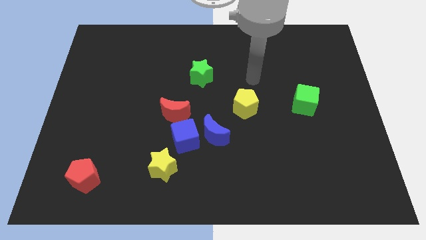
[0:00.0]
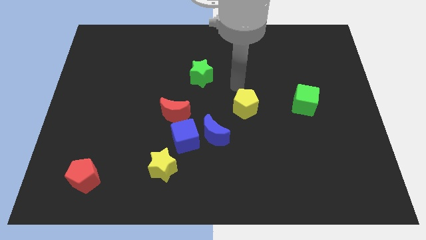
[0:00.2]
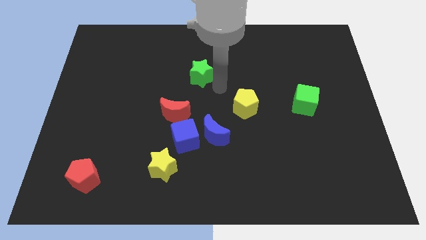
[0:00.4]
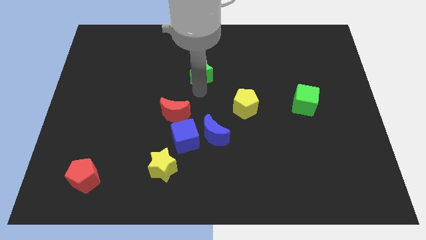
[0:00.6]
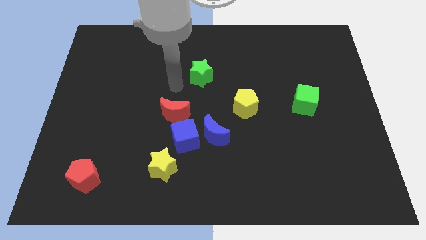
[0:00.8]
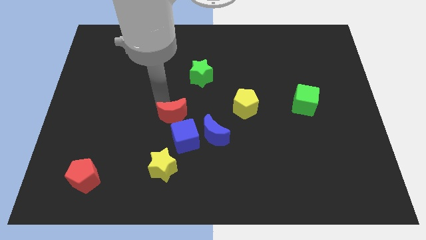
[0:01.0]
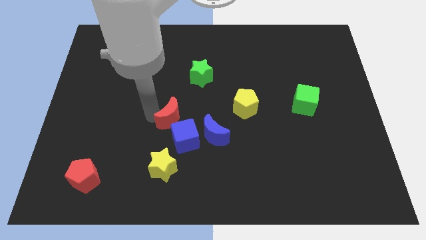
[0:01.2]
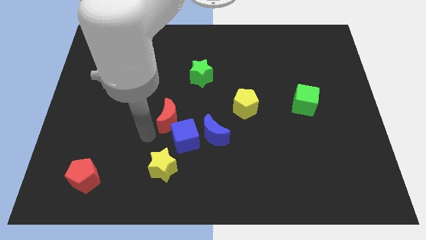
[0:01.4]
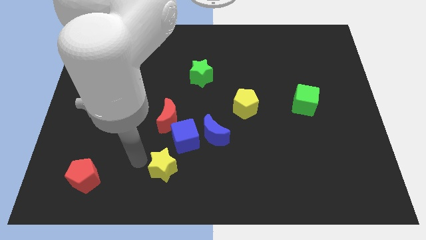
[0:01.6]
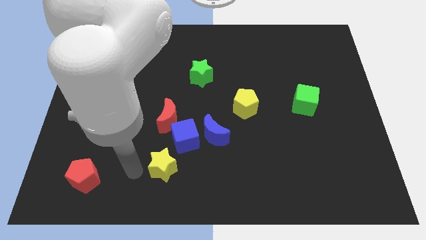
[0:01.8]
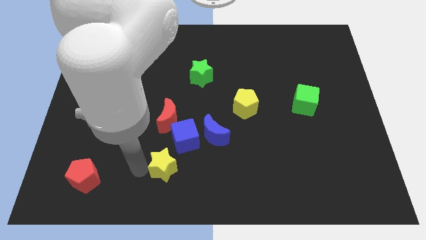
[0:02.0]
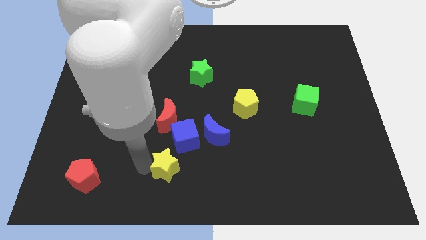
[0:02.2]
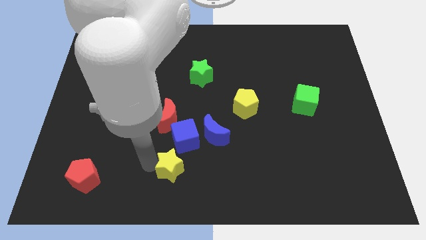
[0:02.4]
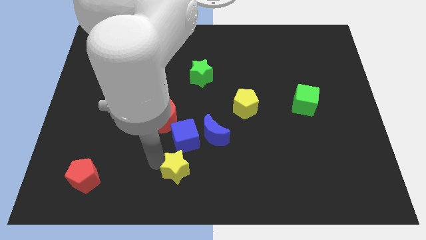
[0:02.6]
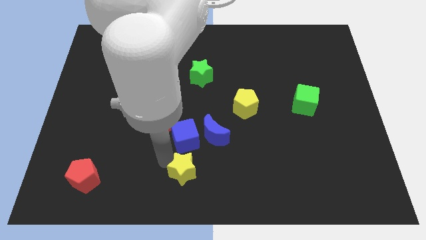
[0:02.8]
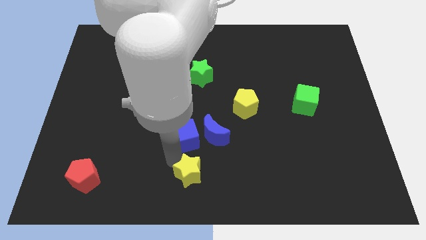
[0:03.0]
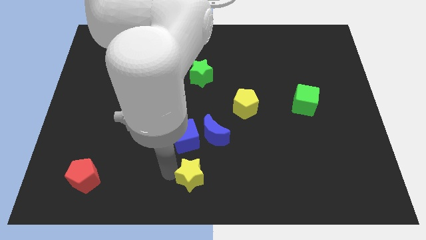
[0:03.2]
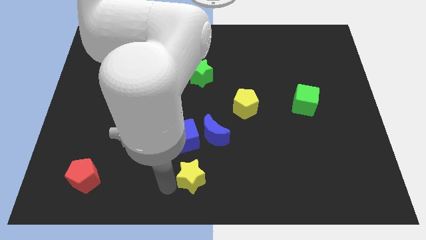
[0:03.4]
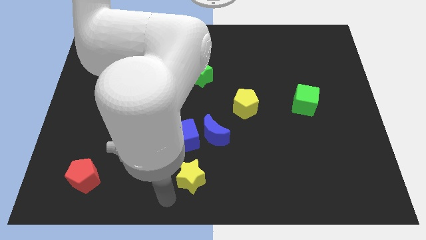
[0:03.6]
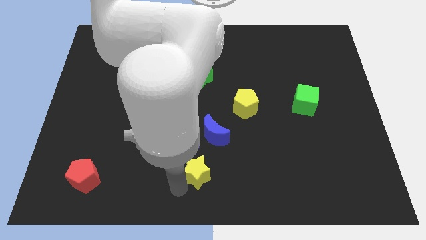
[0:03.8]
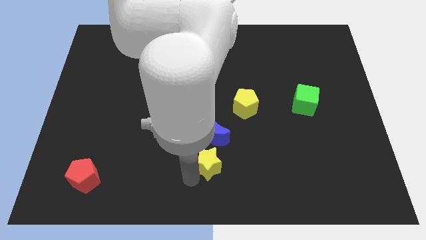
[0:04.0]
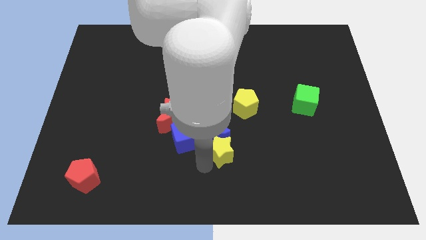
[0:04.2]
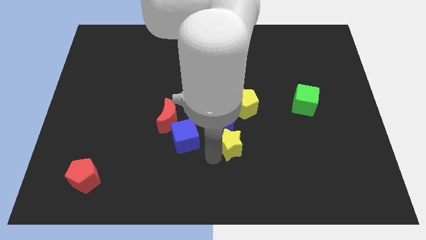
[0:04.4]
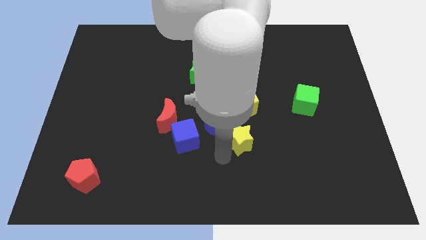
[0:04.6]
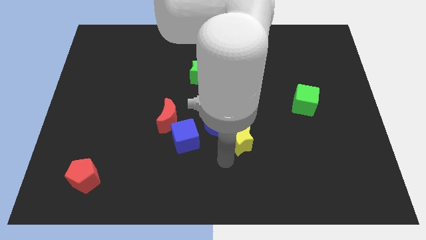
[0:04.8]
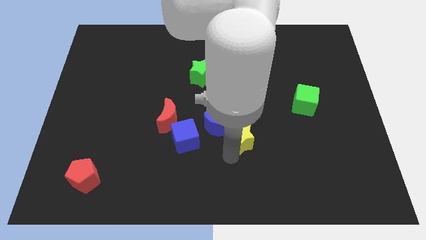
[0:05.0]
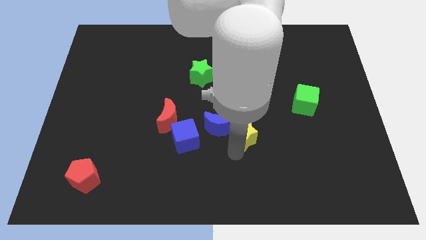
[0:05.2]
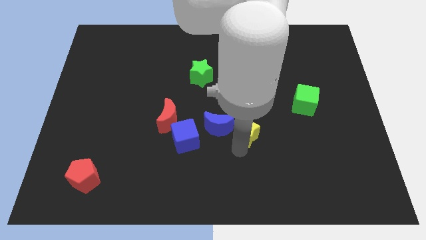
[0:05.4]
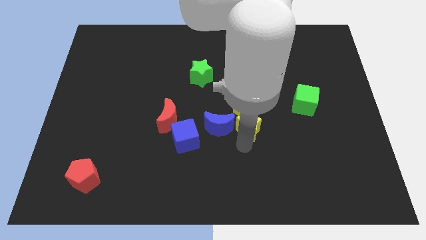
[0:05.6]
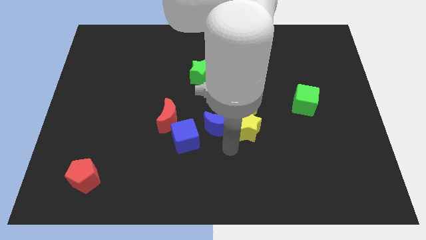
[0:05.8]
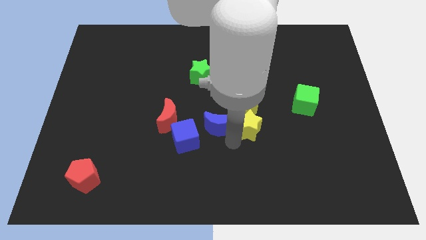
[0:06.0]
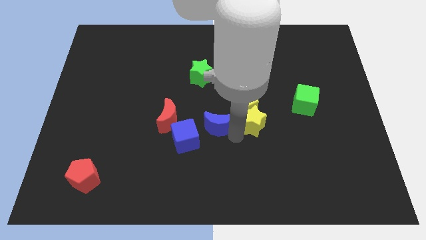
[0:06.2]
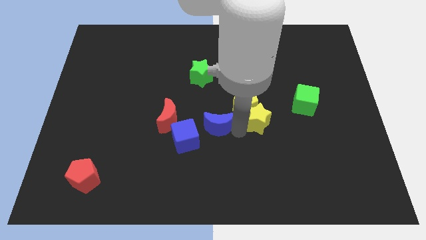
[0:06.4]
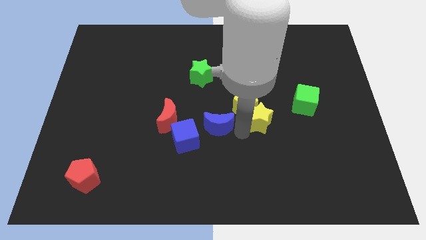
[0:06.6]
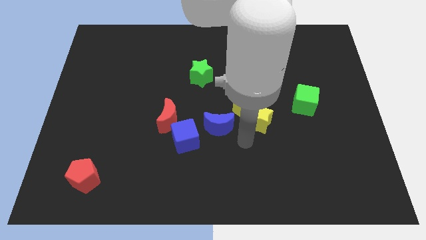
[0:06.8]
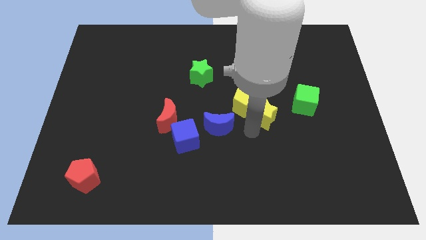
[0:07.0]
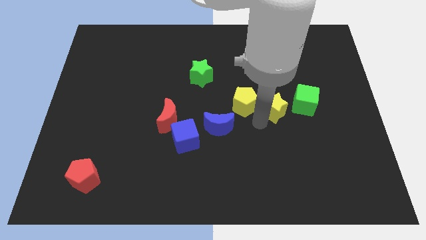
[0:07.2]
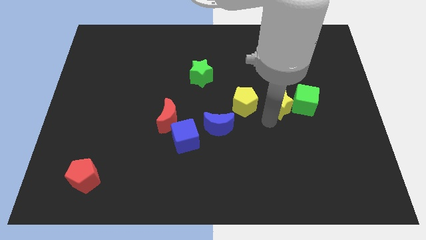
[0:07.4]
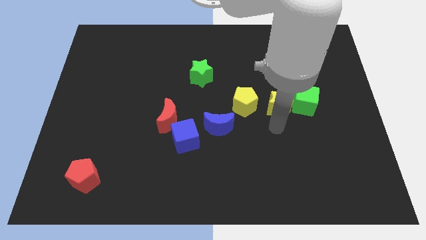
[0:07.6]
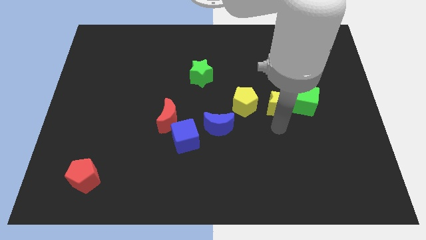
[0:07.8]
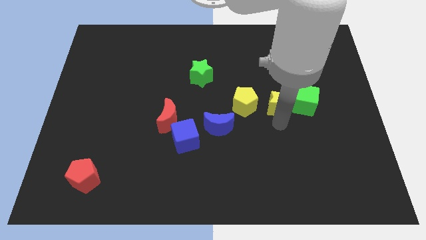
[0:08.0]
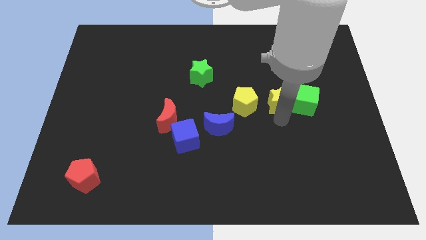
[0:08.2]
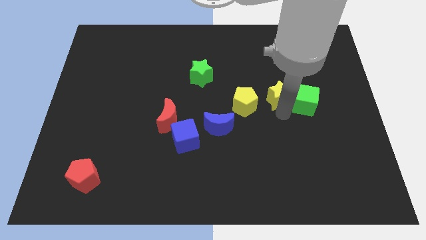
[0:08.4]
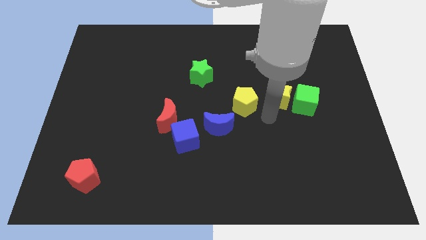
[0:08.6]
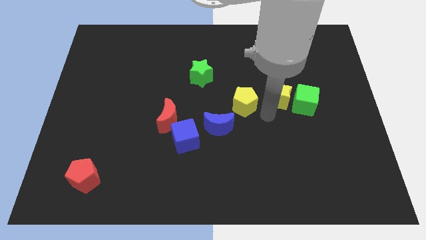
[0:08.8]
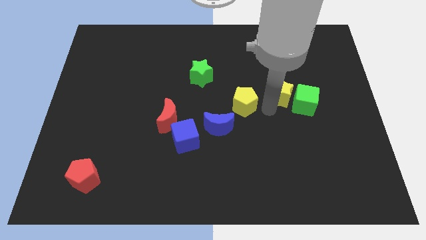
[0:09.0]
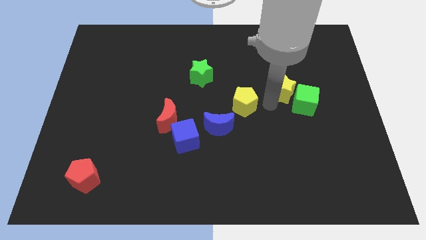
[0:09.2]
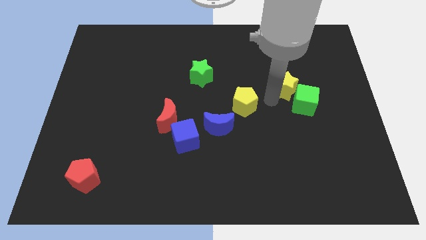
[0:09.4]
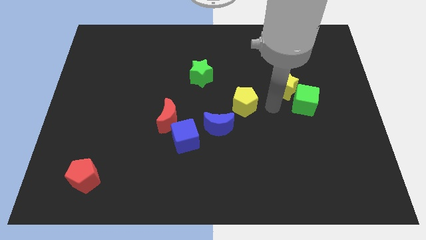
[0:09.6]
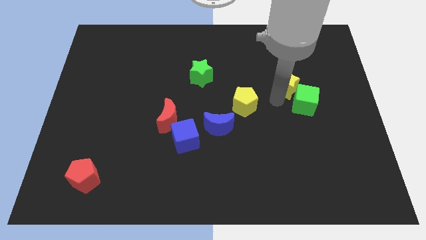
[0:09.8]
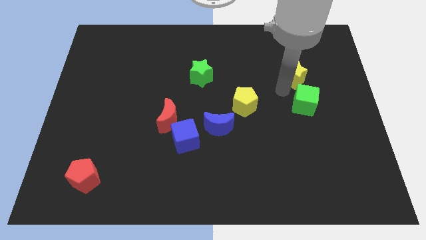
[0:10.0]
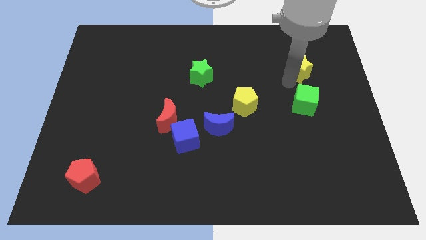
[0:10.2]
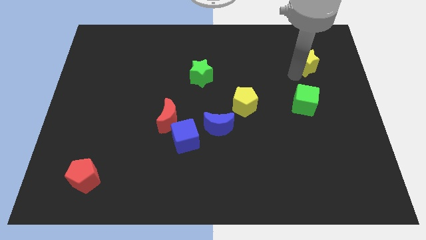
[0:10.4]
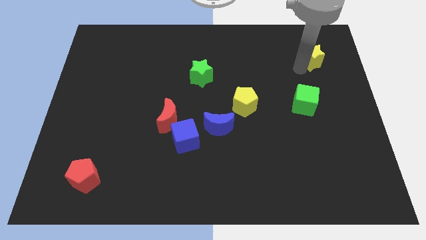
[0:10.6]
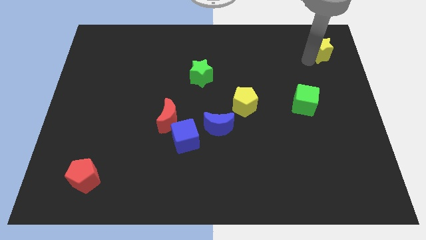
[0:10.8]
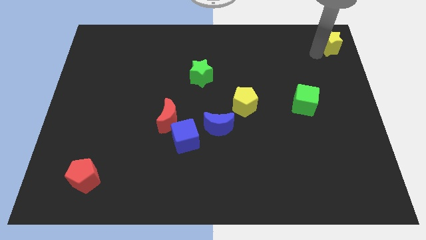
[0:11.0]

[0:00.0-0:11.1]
move the yellow star to the top right corner

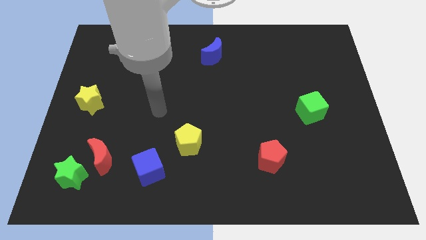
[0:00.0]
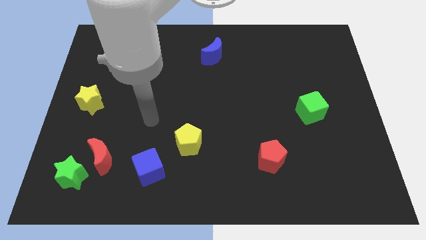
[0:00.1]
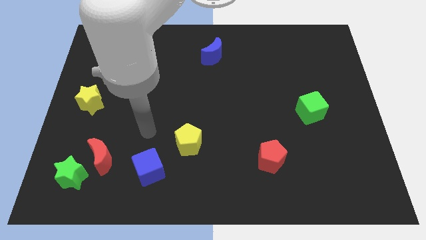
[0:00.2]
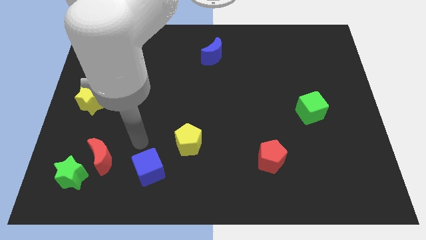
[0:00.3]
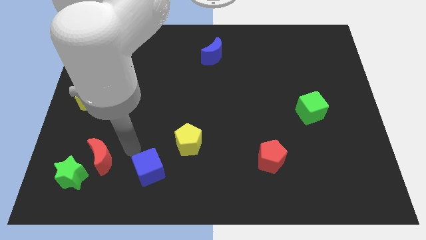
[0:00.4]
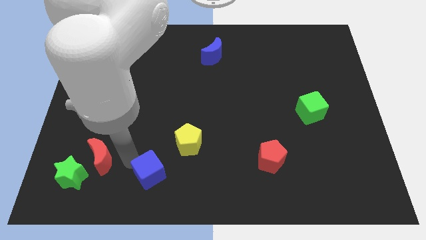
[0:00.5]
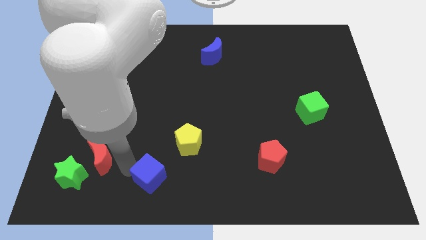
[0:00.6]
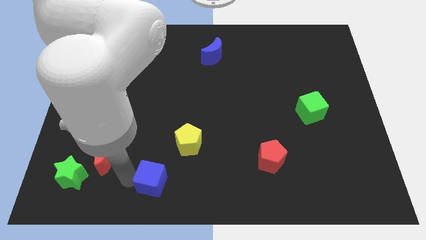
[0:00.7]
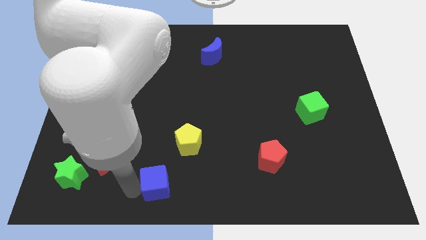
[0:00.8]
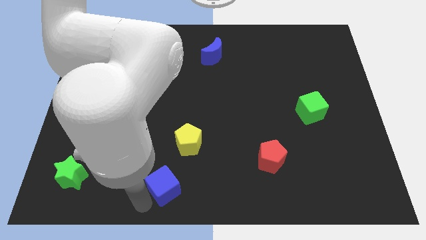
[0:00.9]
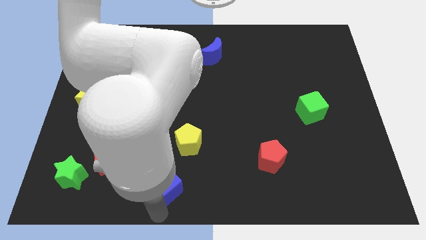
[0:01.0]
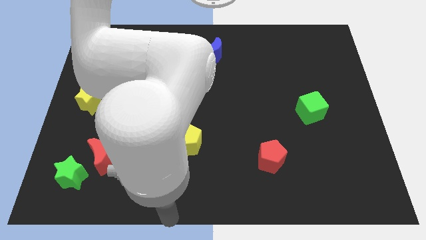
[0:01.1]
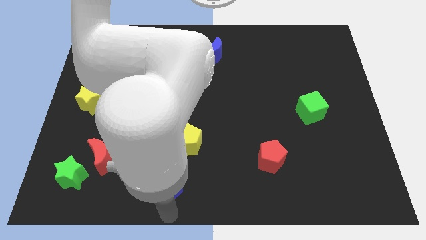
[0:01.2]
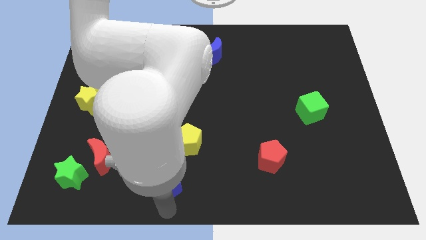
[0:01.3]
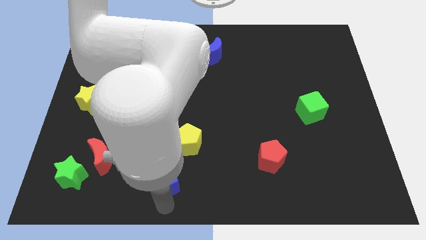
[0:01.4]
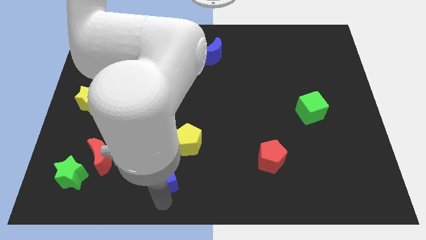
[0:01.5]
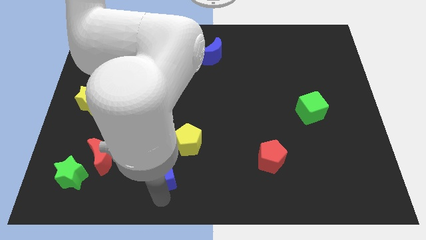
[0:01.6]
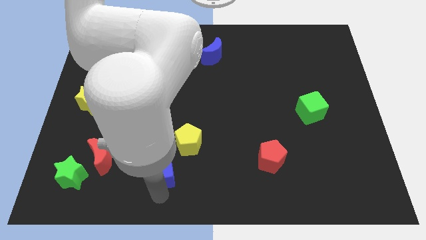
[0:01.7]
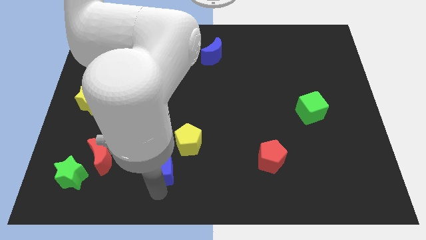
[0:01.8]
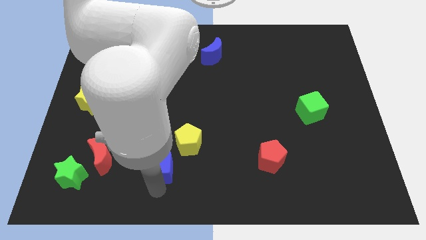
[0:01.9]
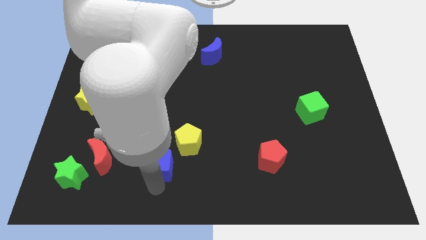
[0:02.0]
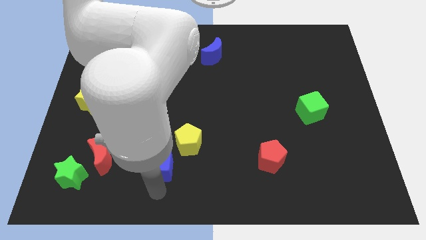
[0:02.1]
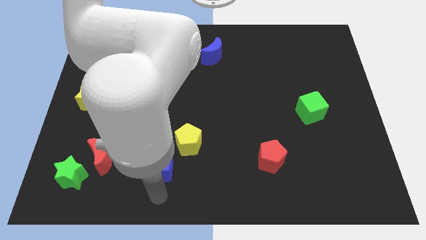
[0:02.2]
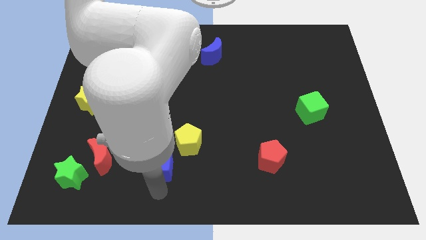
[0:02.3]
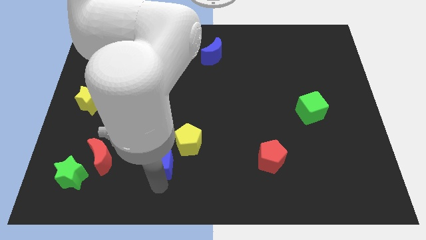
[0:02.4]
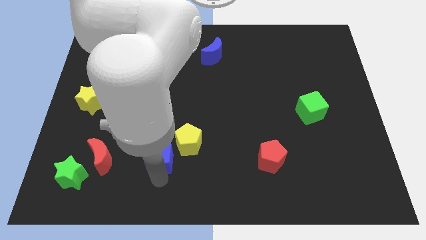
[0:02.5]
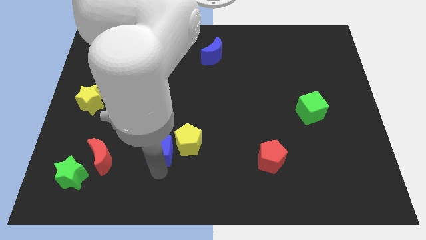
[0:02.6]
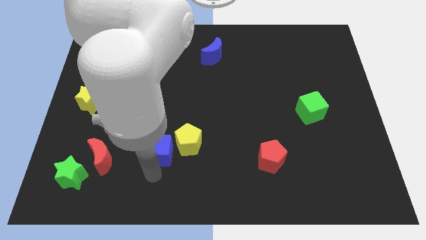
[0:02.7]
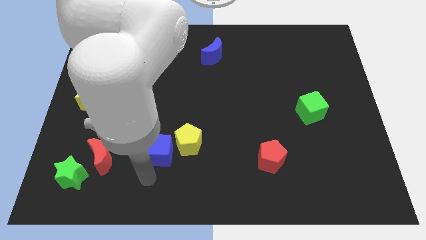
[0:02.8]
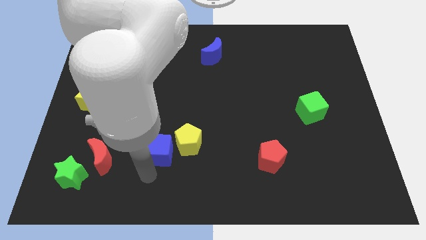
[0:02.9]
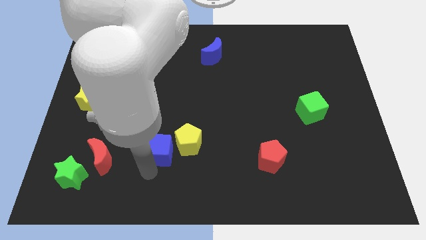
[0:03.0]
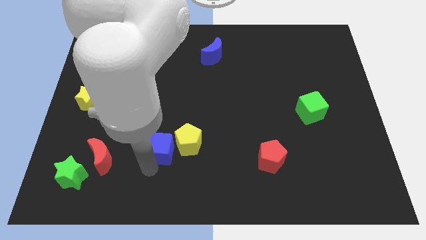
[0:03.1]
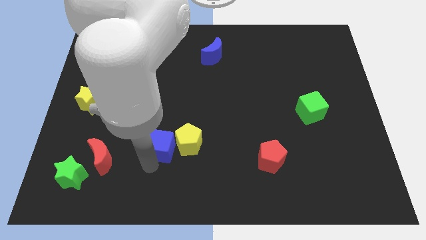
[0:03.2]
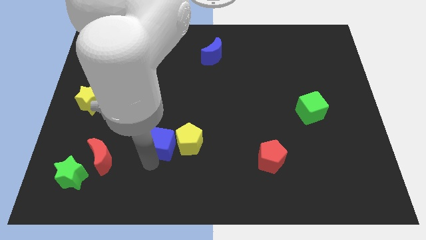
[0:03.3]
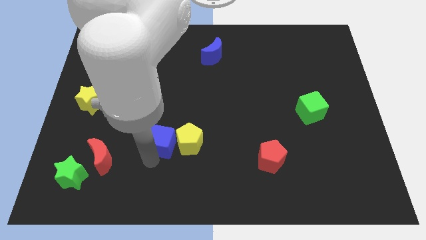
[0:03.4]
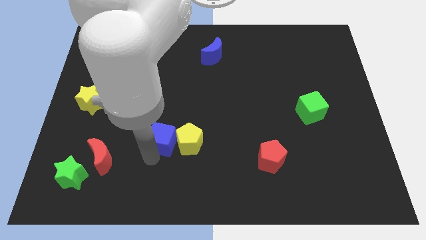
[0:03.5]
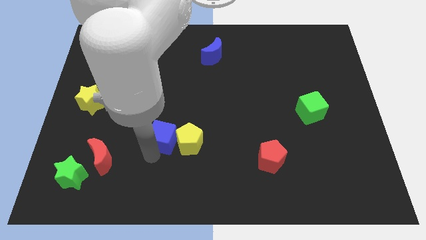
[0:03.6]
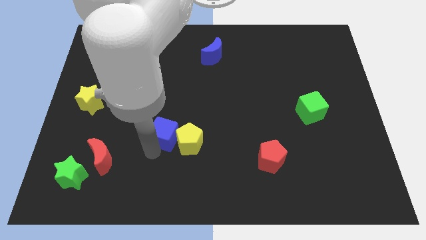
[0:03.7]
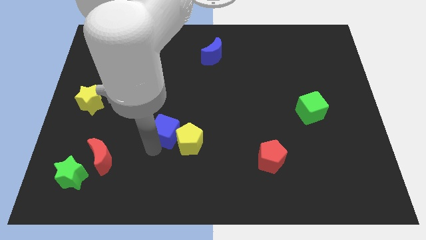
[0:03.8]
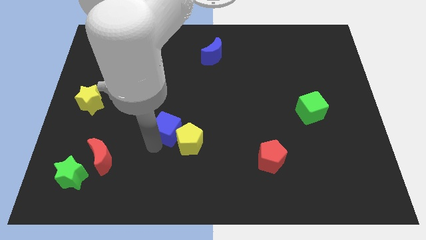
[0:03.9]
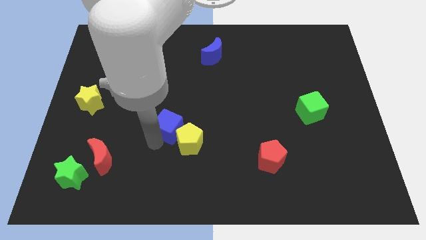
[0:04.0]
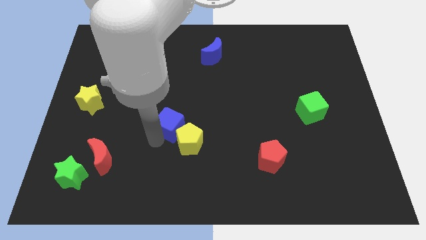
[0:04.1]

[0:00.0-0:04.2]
push the blue cube to the middle of the board
